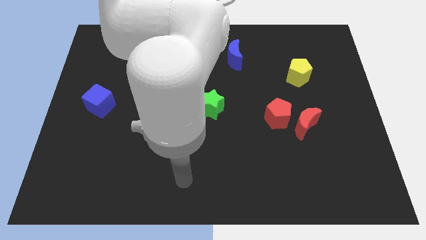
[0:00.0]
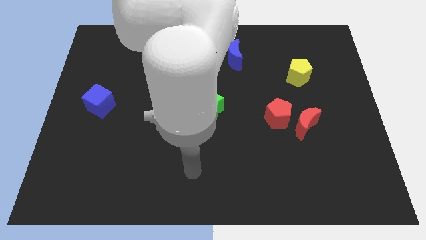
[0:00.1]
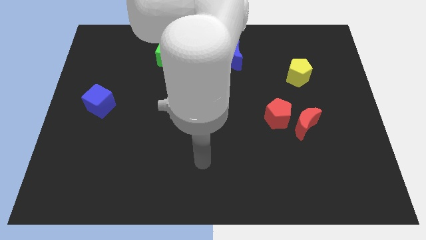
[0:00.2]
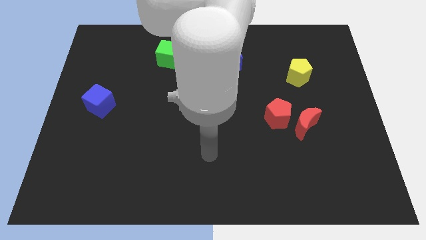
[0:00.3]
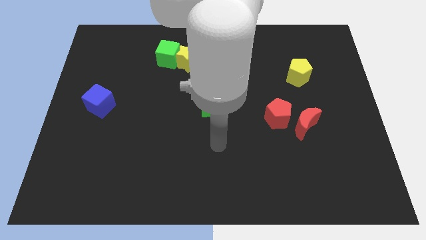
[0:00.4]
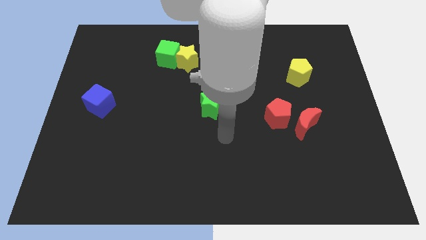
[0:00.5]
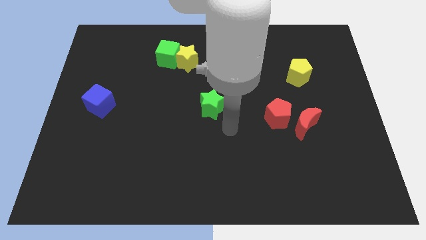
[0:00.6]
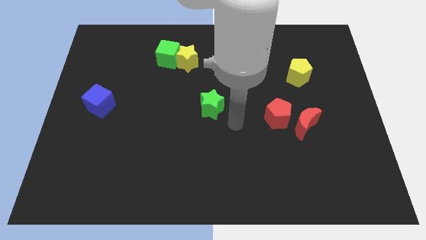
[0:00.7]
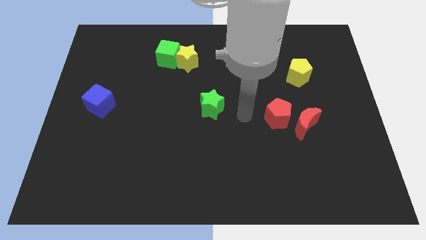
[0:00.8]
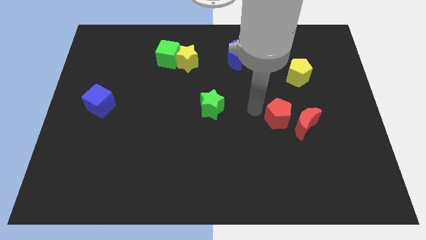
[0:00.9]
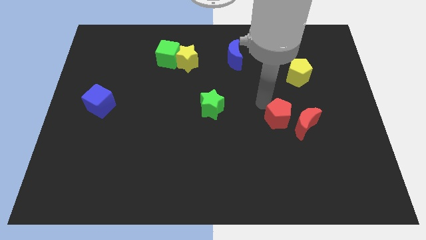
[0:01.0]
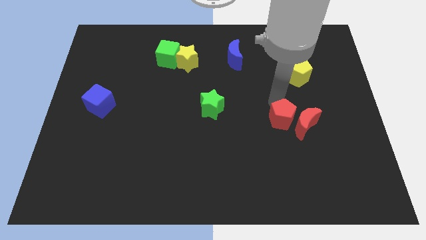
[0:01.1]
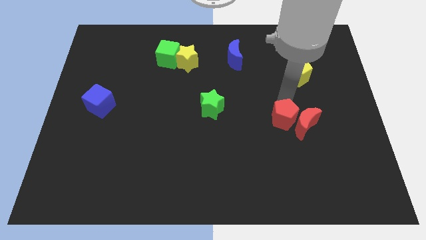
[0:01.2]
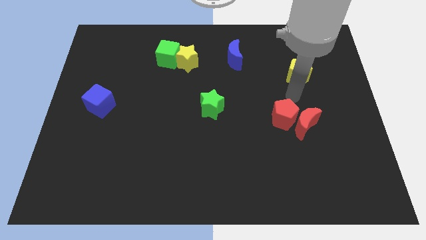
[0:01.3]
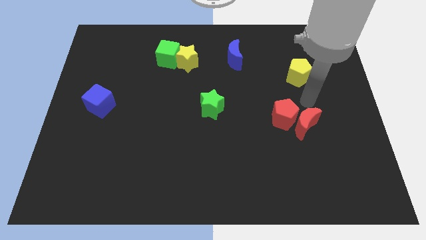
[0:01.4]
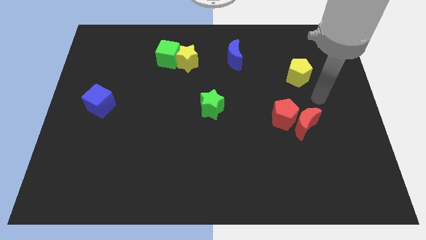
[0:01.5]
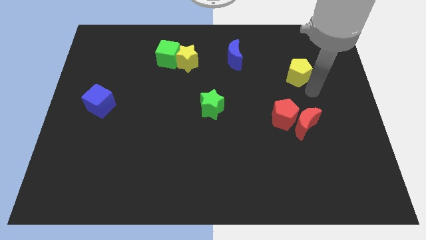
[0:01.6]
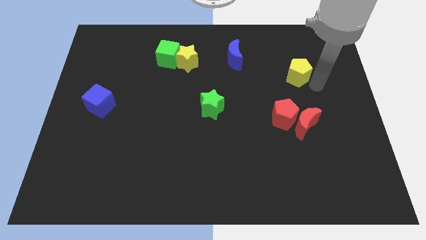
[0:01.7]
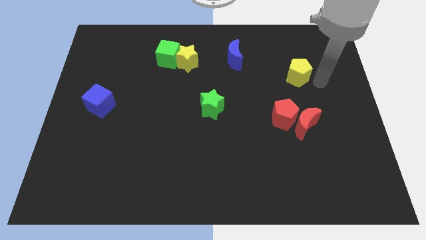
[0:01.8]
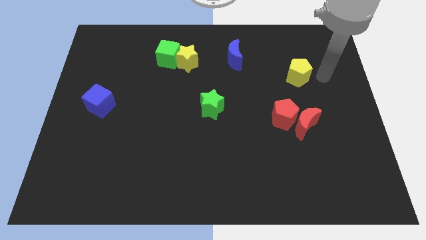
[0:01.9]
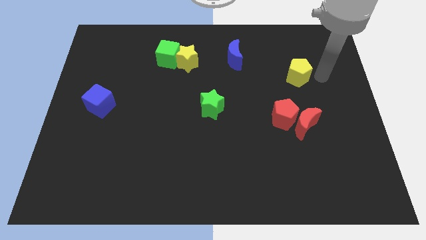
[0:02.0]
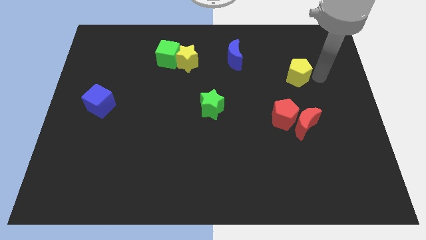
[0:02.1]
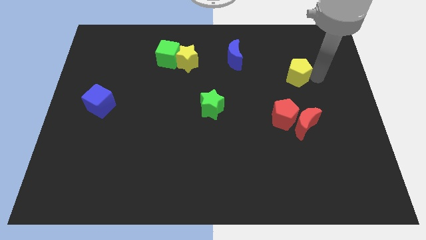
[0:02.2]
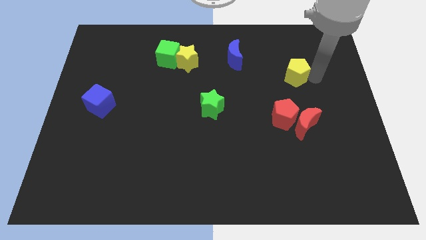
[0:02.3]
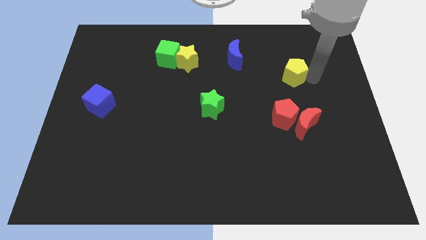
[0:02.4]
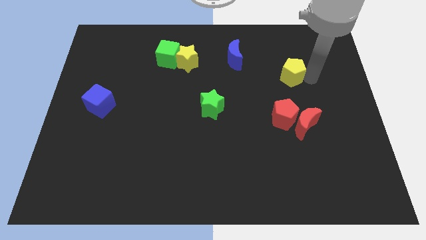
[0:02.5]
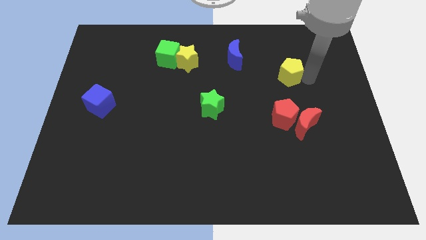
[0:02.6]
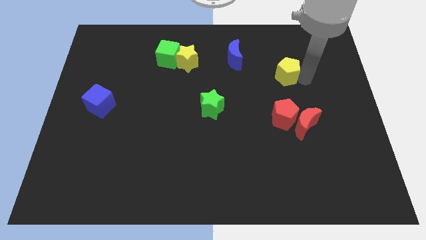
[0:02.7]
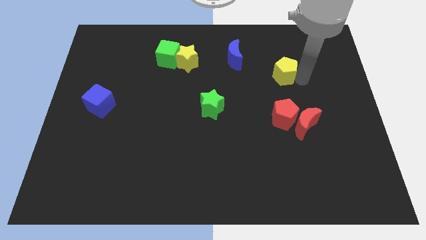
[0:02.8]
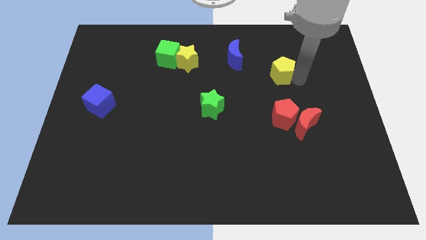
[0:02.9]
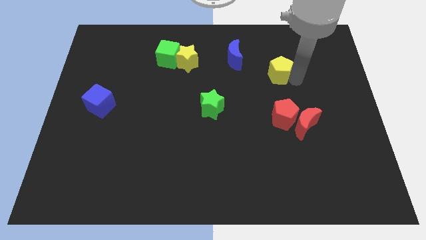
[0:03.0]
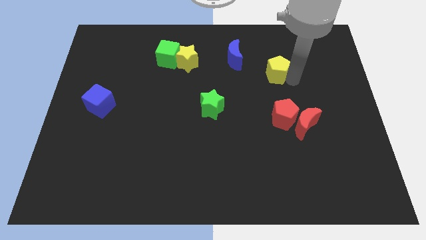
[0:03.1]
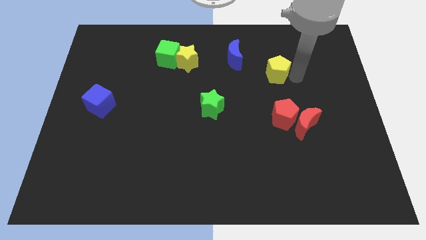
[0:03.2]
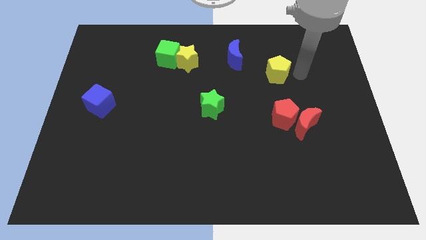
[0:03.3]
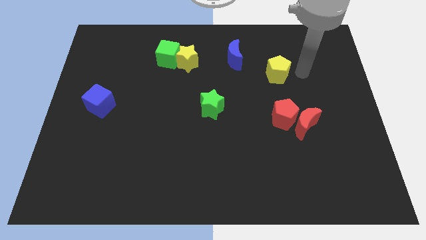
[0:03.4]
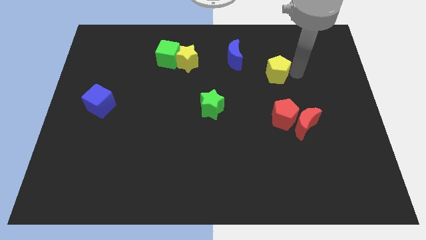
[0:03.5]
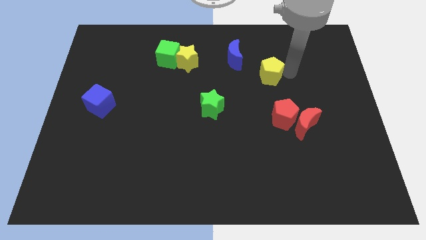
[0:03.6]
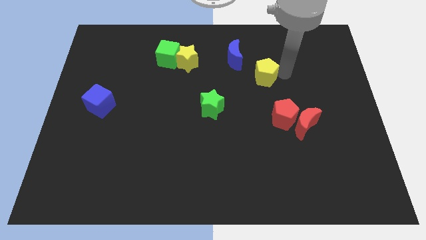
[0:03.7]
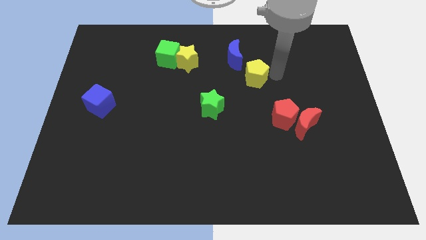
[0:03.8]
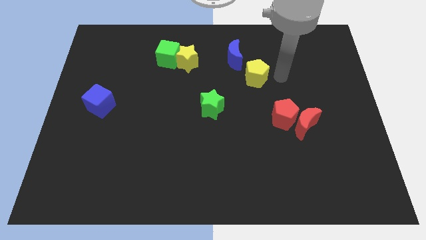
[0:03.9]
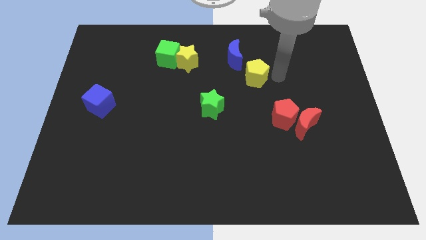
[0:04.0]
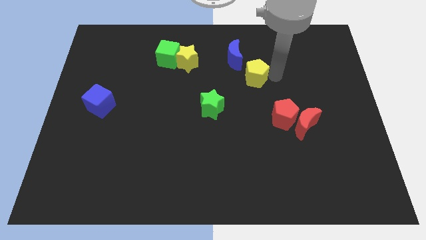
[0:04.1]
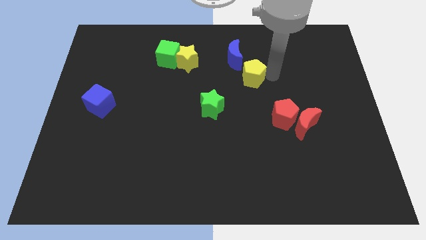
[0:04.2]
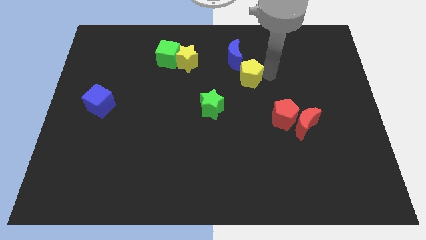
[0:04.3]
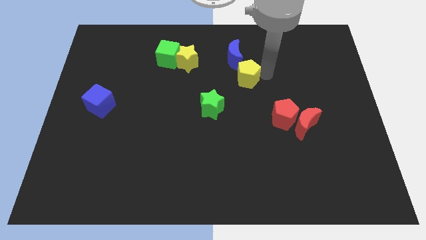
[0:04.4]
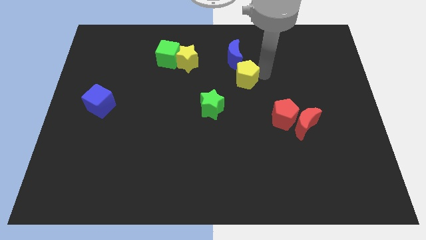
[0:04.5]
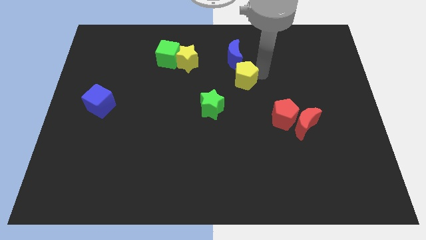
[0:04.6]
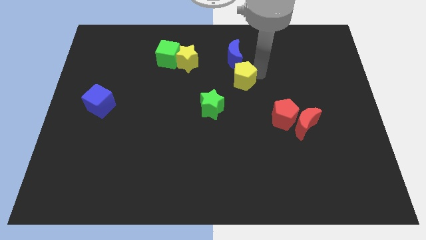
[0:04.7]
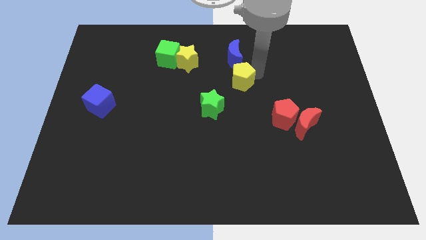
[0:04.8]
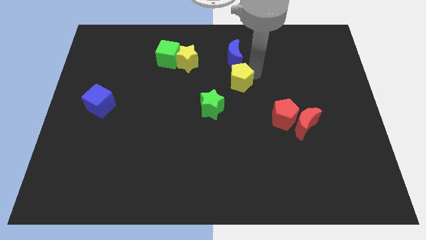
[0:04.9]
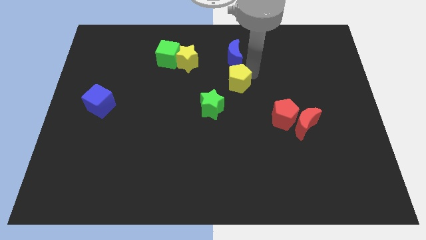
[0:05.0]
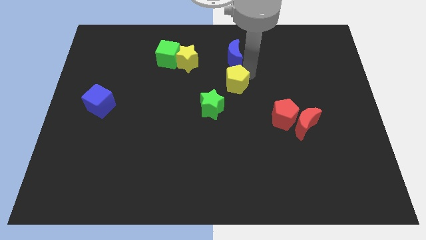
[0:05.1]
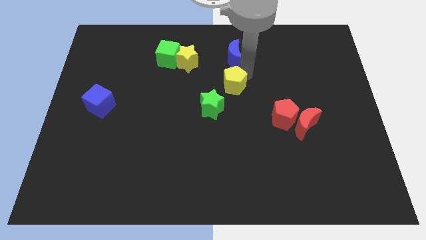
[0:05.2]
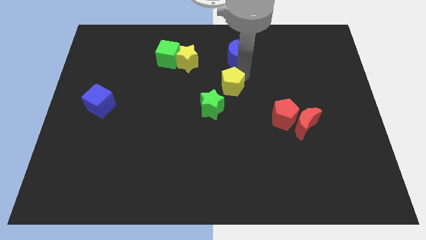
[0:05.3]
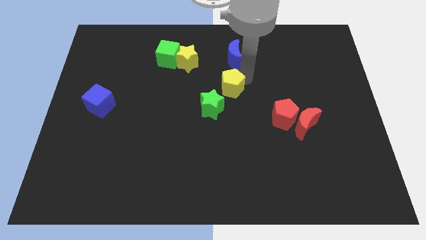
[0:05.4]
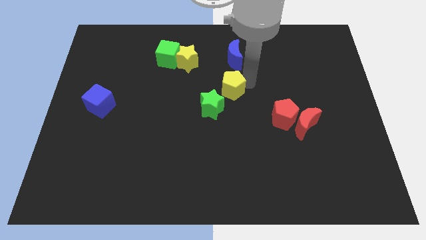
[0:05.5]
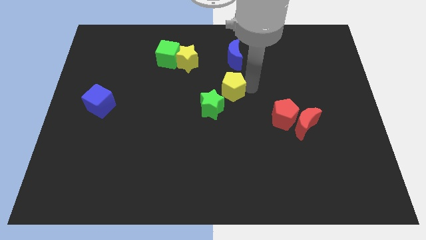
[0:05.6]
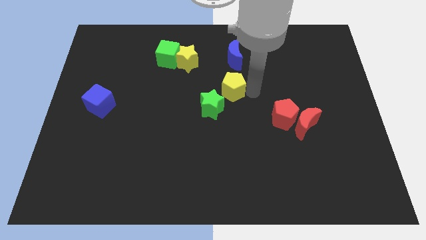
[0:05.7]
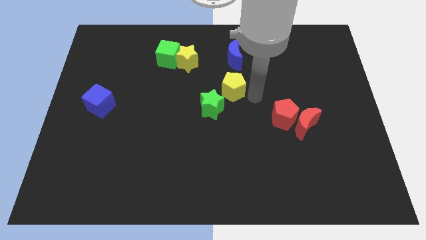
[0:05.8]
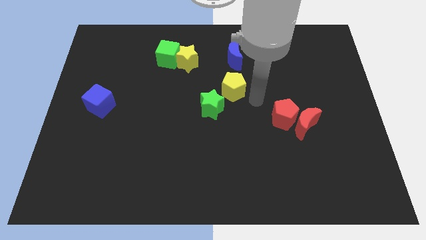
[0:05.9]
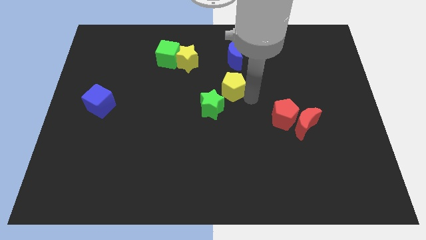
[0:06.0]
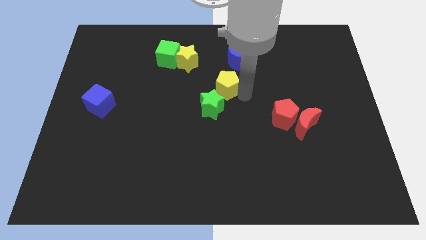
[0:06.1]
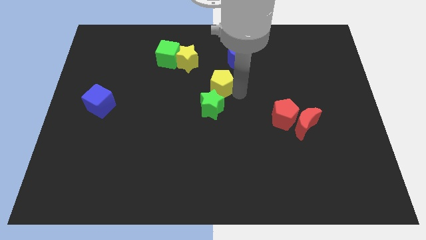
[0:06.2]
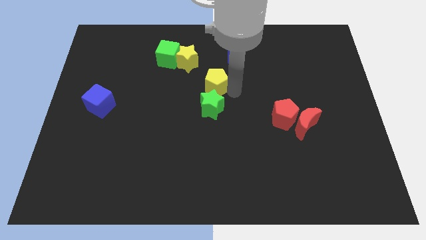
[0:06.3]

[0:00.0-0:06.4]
push the yellow pentagon left

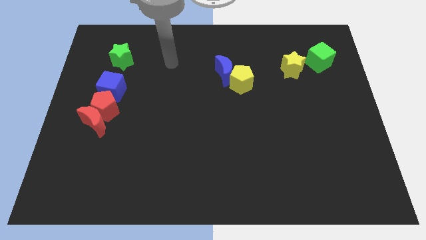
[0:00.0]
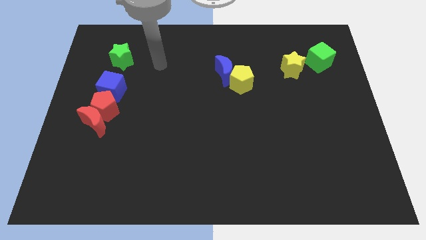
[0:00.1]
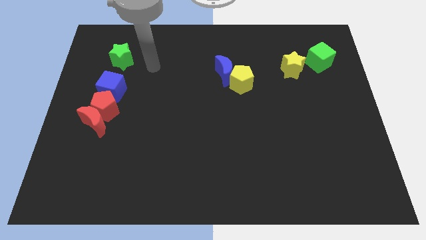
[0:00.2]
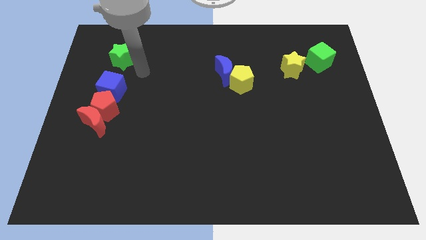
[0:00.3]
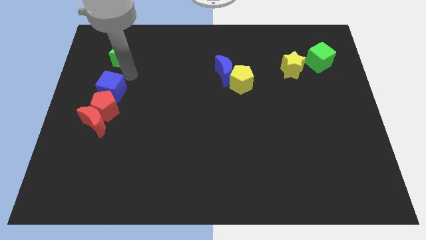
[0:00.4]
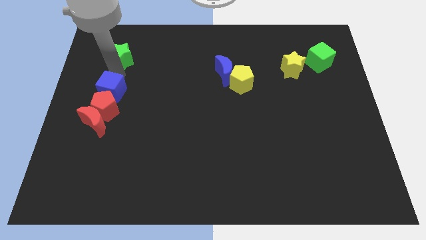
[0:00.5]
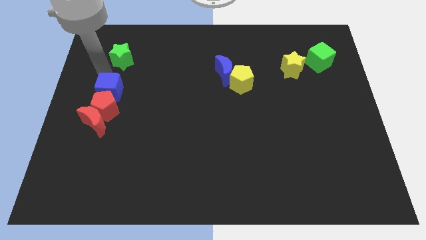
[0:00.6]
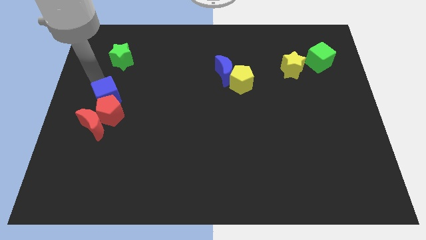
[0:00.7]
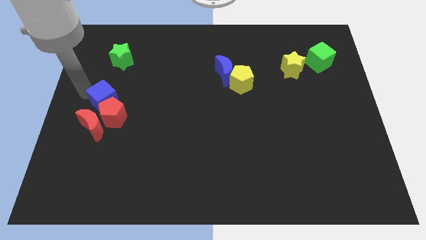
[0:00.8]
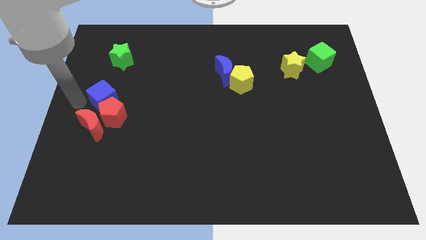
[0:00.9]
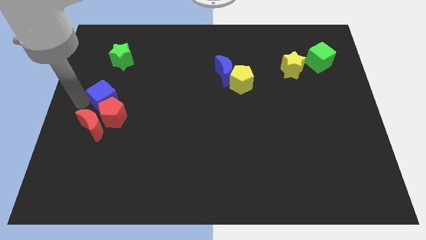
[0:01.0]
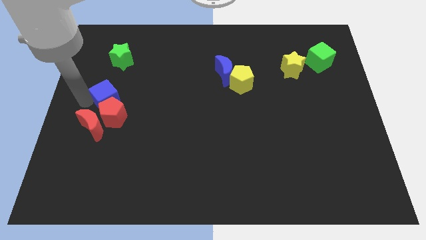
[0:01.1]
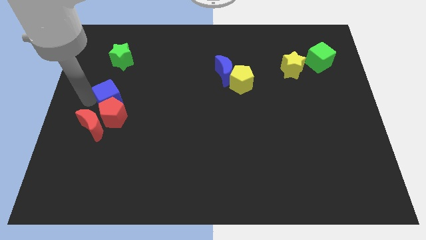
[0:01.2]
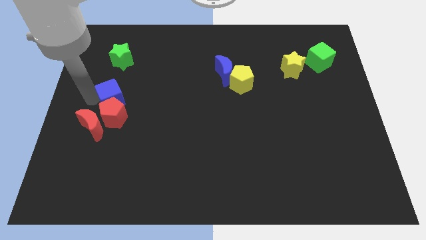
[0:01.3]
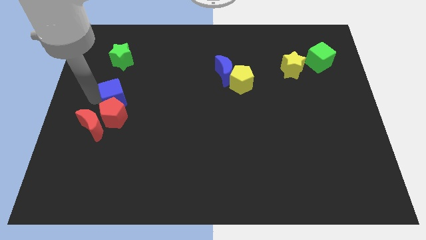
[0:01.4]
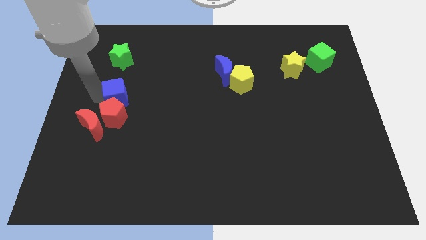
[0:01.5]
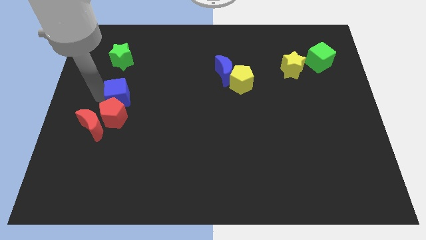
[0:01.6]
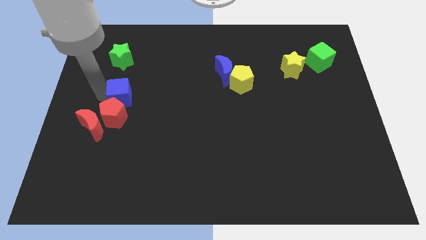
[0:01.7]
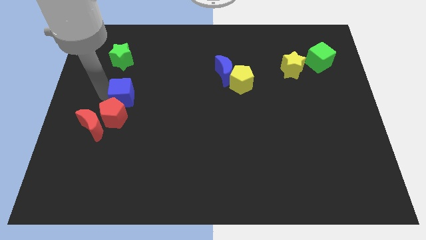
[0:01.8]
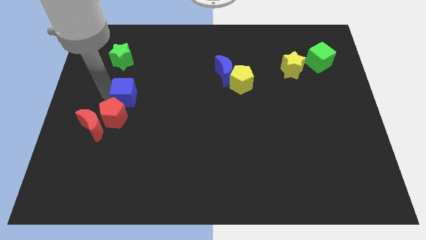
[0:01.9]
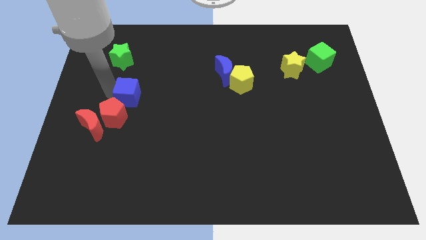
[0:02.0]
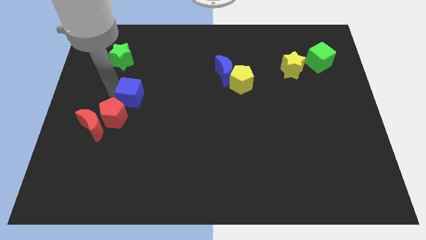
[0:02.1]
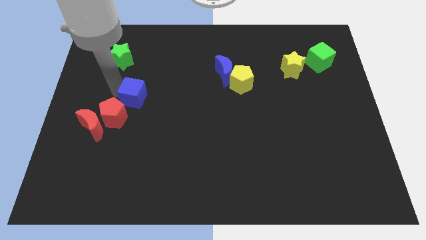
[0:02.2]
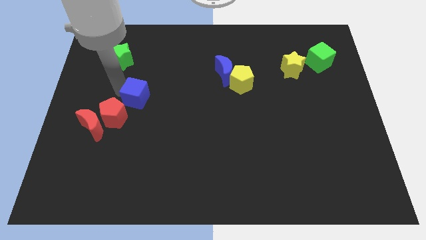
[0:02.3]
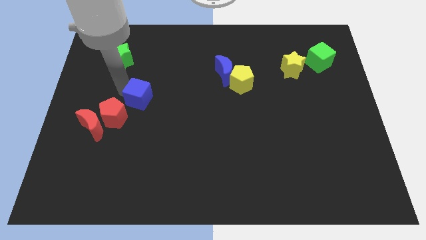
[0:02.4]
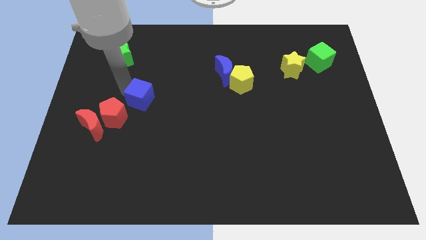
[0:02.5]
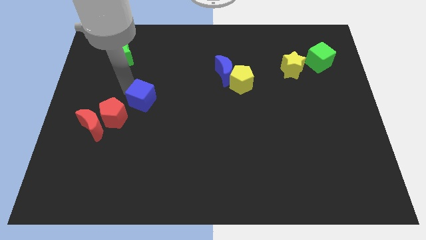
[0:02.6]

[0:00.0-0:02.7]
slide the blue cube down and then to the right a little
